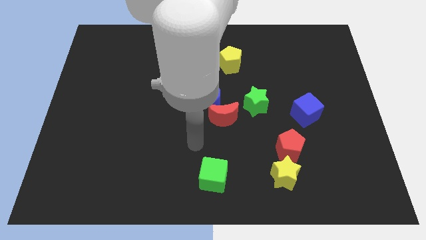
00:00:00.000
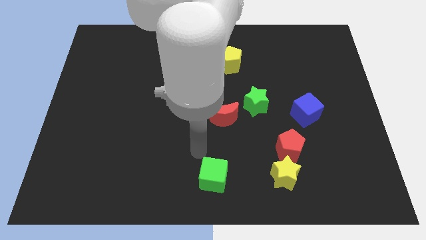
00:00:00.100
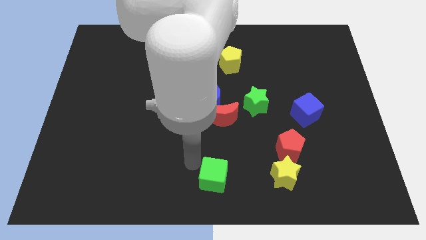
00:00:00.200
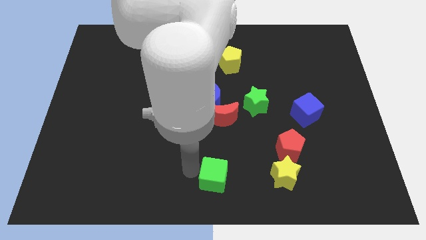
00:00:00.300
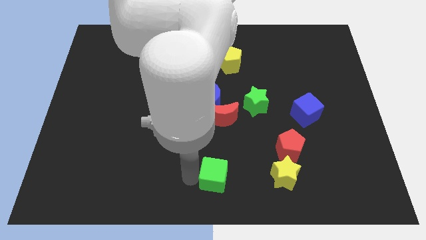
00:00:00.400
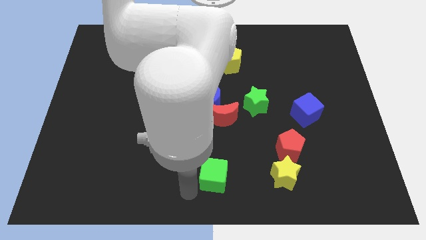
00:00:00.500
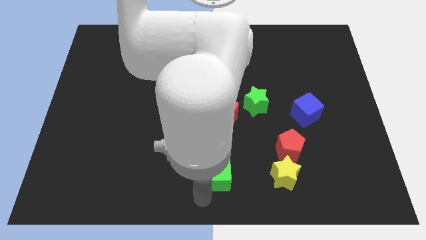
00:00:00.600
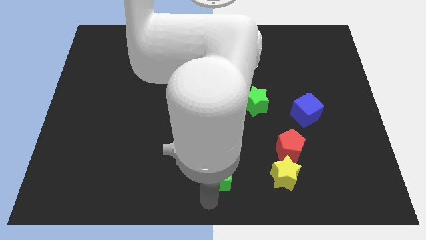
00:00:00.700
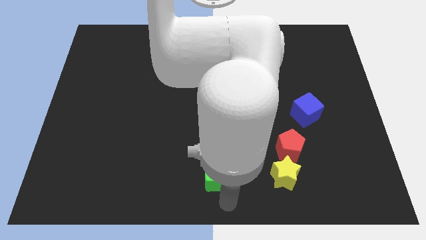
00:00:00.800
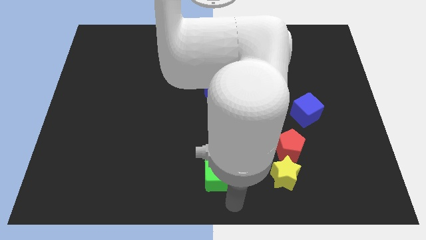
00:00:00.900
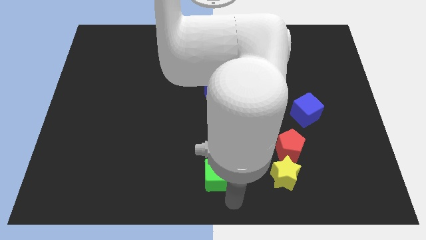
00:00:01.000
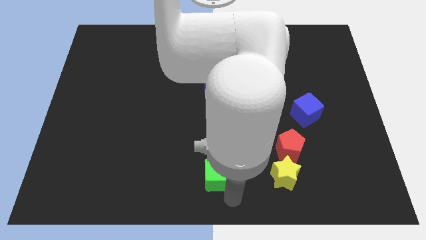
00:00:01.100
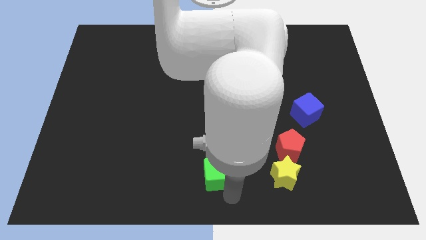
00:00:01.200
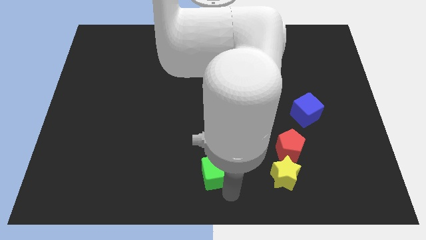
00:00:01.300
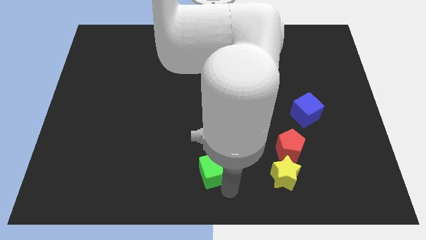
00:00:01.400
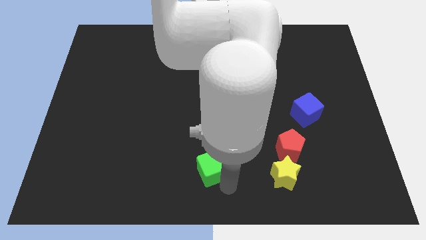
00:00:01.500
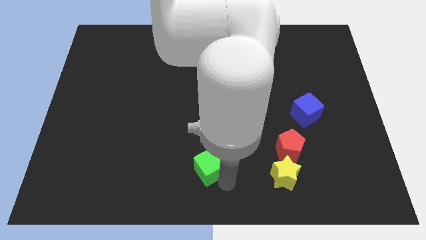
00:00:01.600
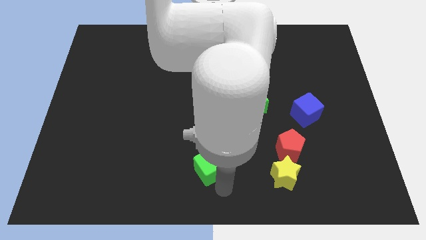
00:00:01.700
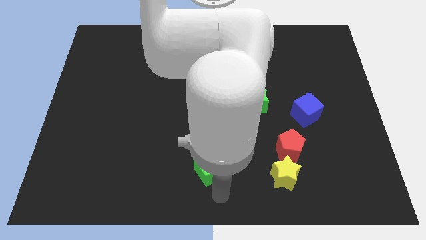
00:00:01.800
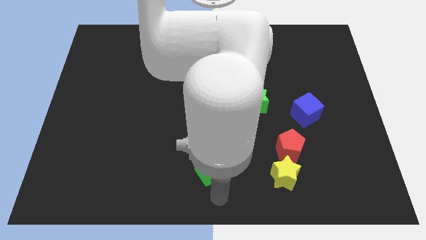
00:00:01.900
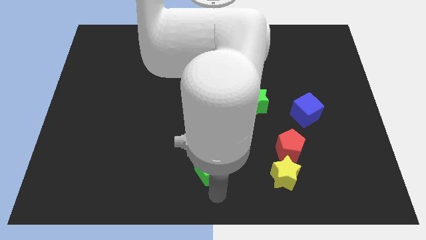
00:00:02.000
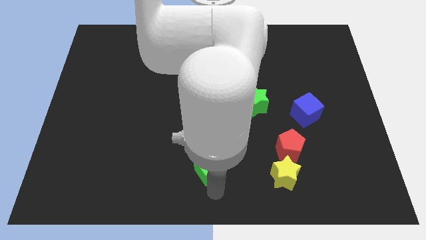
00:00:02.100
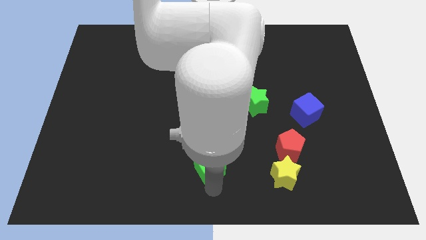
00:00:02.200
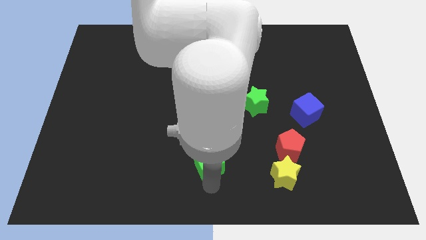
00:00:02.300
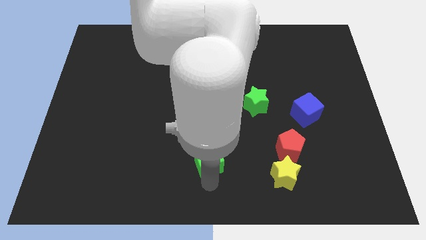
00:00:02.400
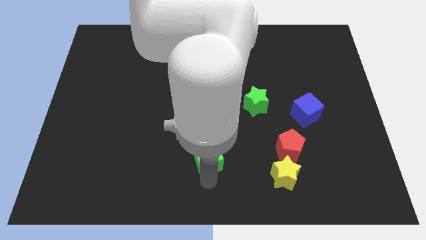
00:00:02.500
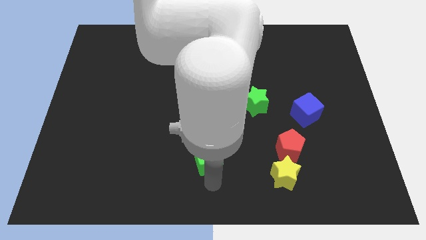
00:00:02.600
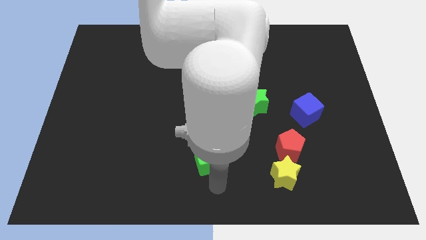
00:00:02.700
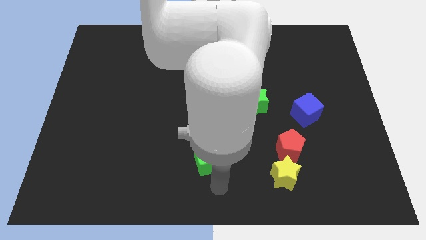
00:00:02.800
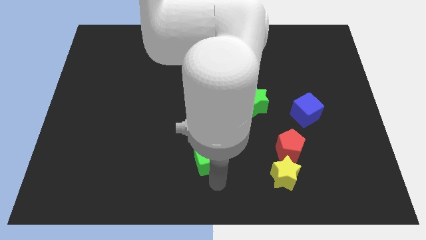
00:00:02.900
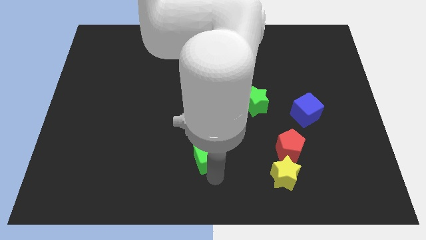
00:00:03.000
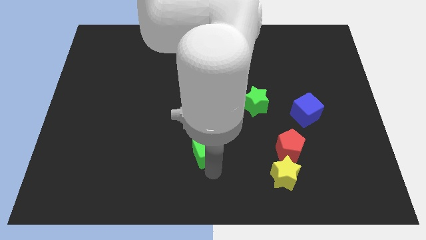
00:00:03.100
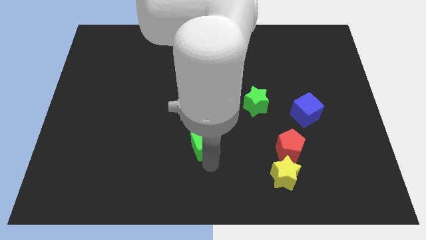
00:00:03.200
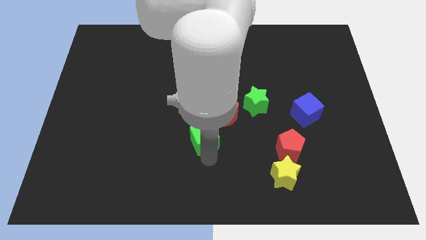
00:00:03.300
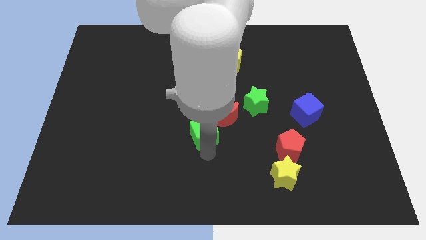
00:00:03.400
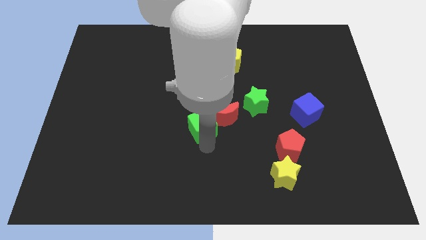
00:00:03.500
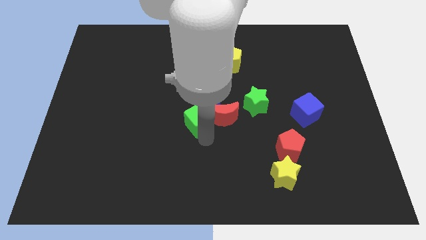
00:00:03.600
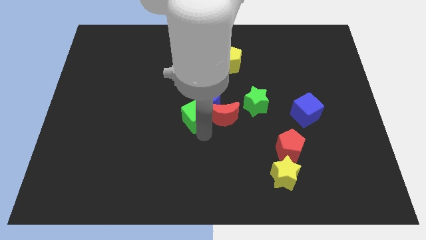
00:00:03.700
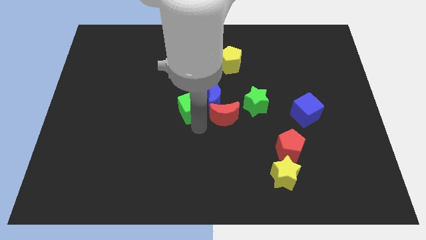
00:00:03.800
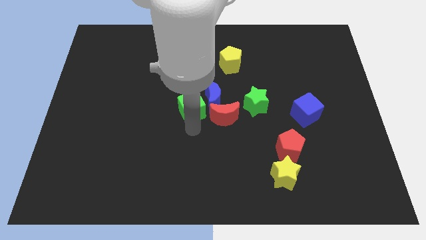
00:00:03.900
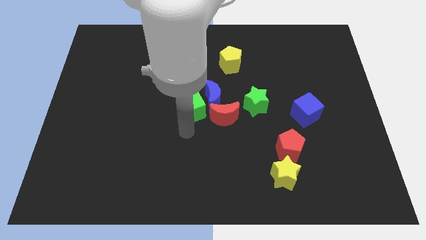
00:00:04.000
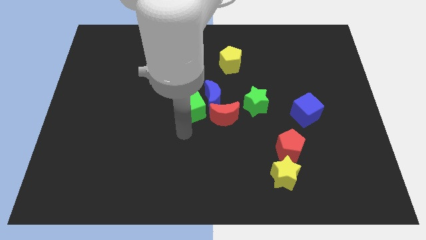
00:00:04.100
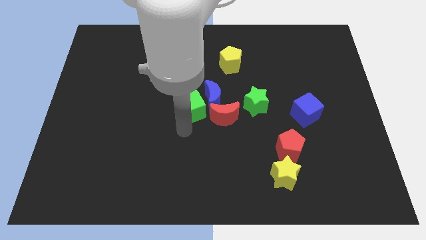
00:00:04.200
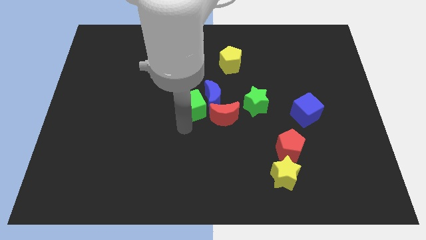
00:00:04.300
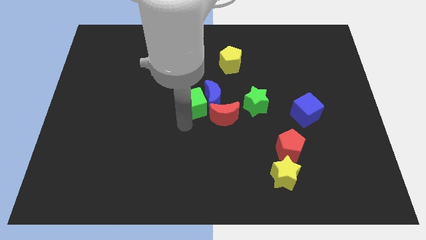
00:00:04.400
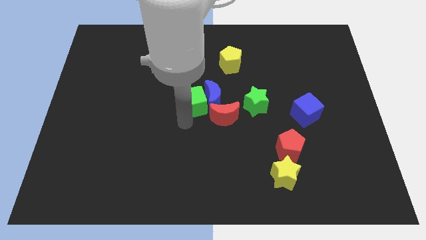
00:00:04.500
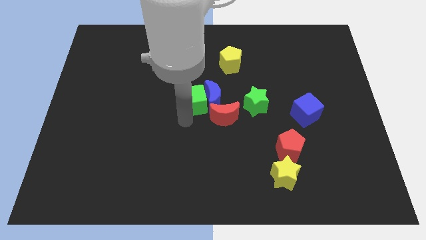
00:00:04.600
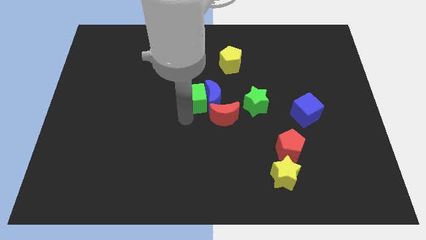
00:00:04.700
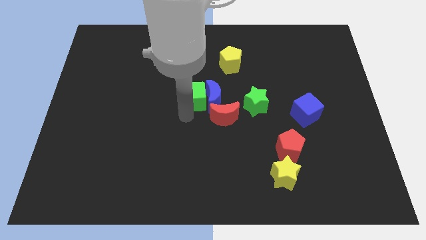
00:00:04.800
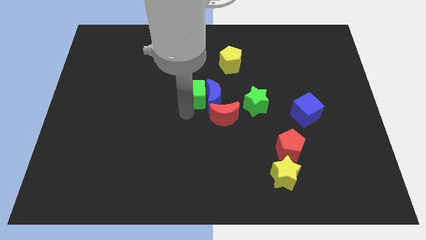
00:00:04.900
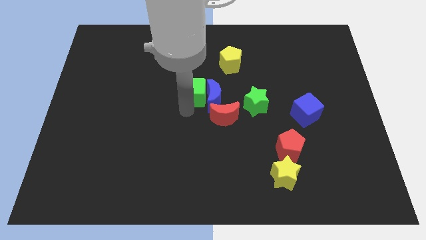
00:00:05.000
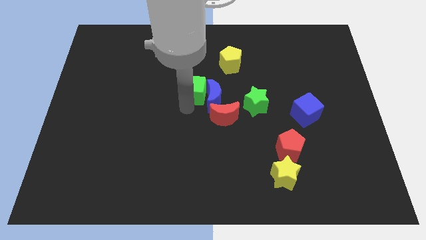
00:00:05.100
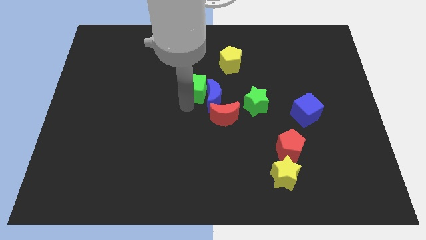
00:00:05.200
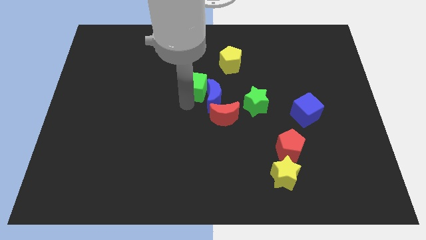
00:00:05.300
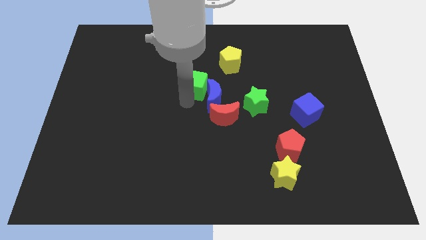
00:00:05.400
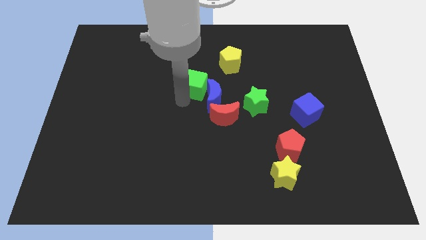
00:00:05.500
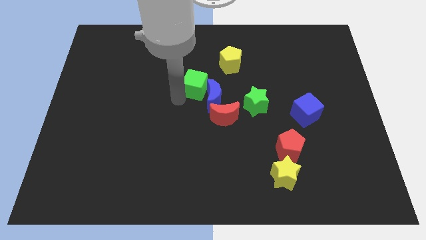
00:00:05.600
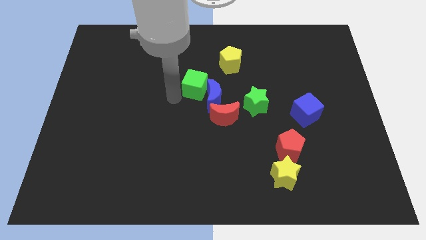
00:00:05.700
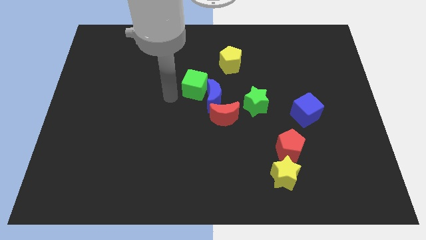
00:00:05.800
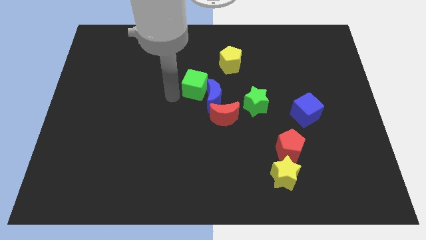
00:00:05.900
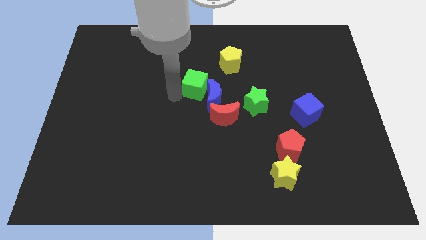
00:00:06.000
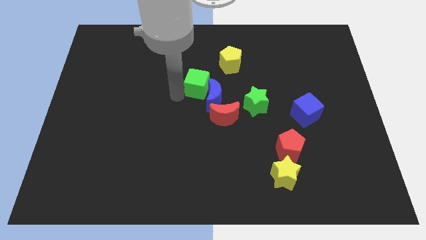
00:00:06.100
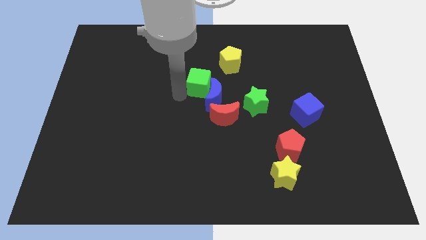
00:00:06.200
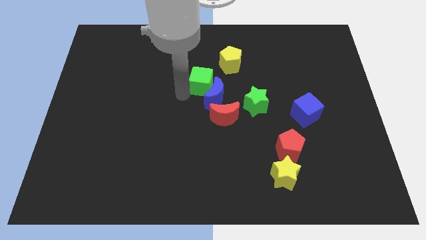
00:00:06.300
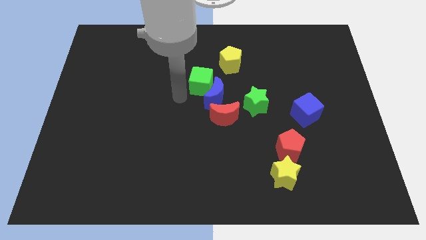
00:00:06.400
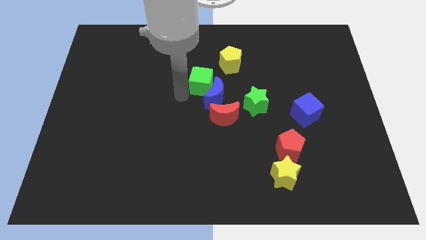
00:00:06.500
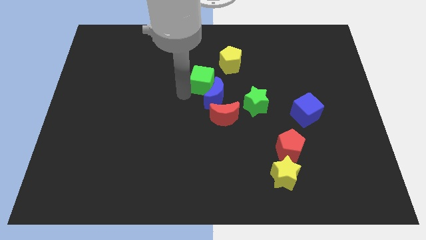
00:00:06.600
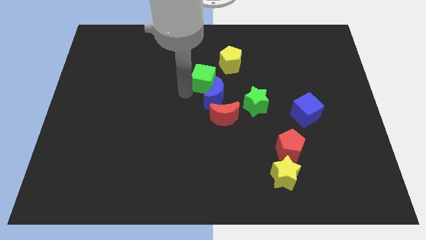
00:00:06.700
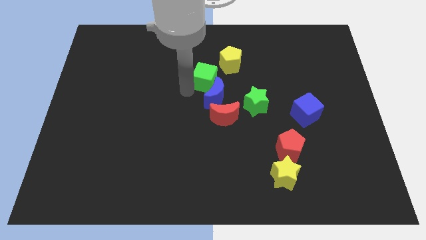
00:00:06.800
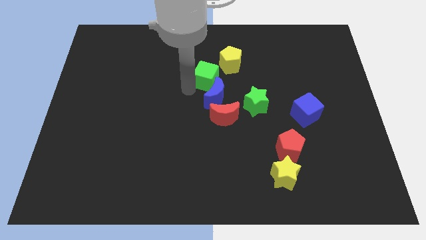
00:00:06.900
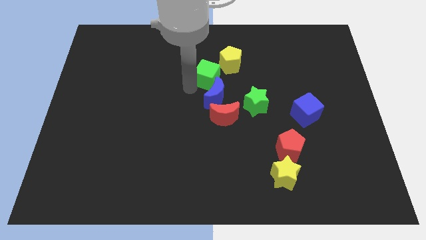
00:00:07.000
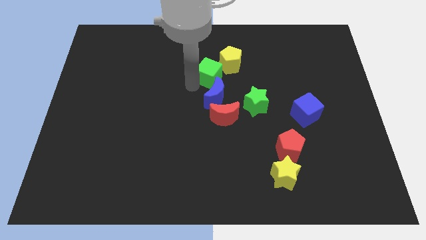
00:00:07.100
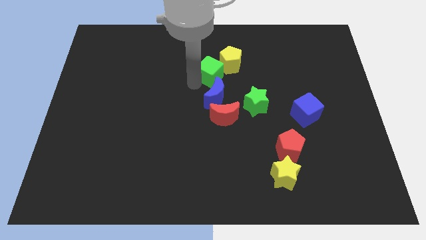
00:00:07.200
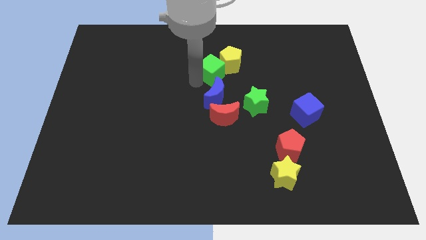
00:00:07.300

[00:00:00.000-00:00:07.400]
push the green cube towards the yellow pentagon
